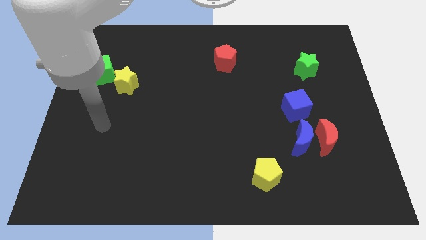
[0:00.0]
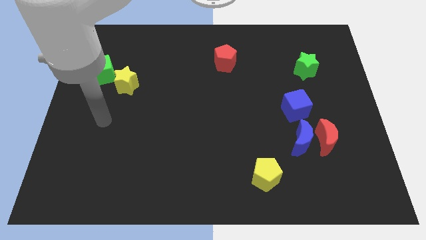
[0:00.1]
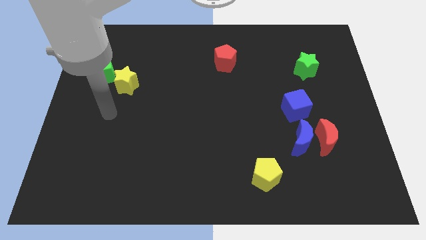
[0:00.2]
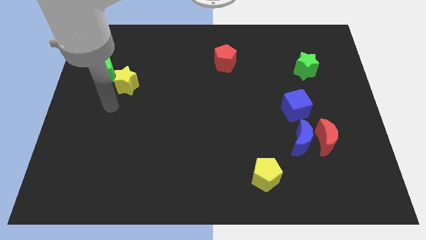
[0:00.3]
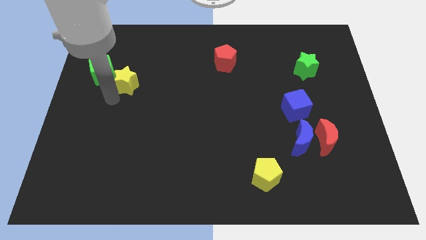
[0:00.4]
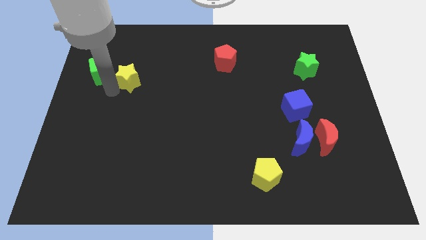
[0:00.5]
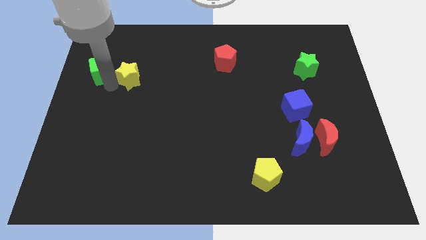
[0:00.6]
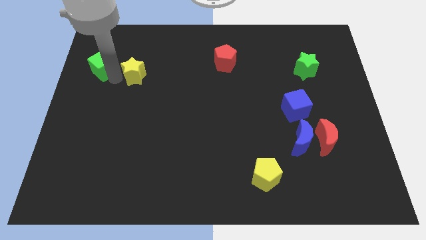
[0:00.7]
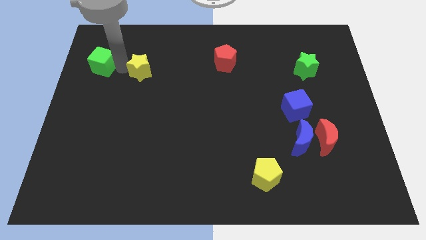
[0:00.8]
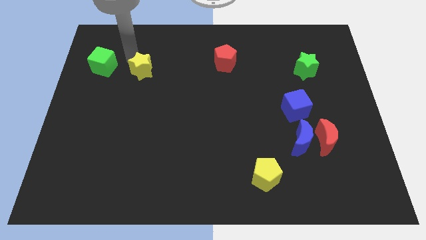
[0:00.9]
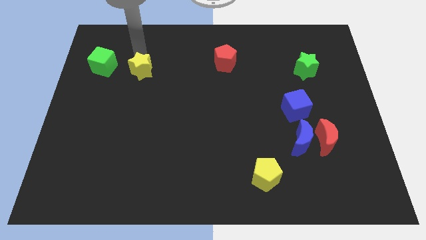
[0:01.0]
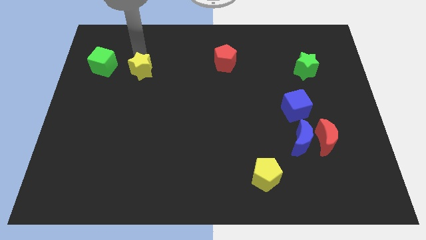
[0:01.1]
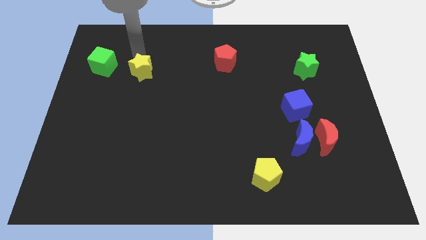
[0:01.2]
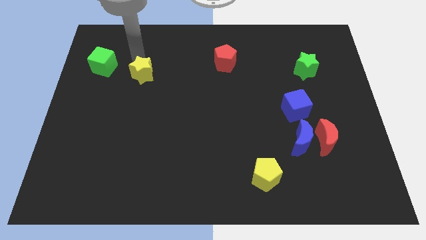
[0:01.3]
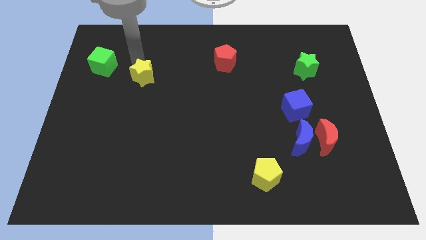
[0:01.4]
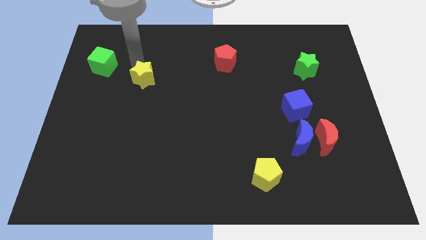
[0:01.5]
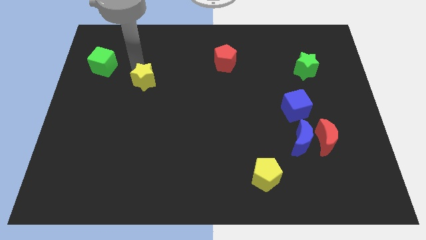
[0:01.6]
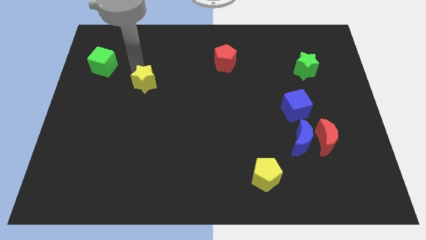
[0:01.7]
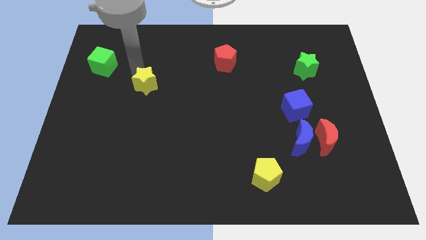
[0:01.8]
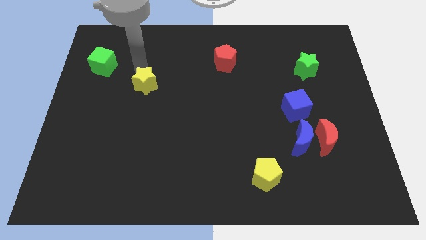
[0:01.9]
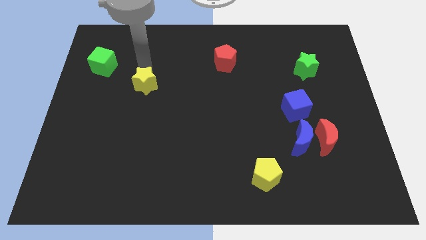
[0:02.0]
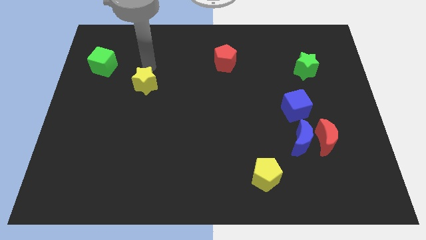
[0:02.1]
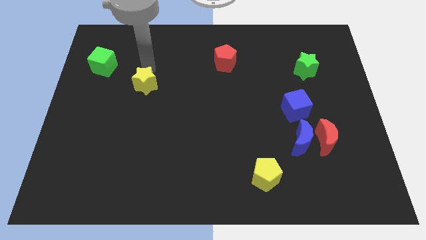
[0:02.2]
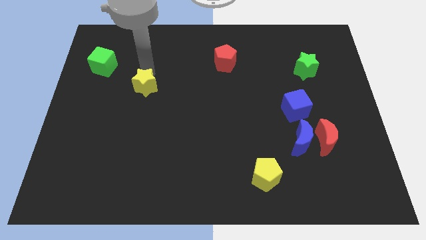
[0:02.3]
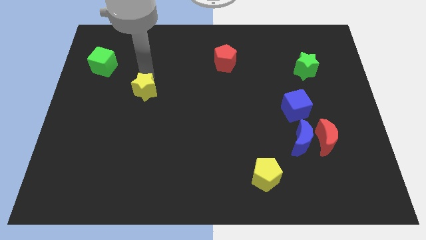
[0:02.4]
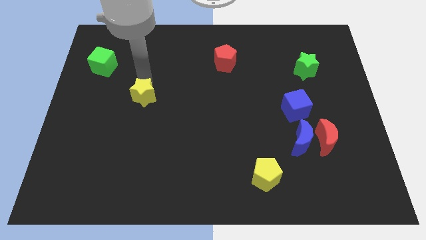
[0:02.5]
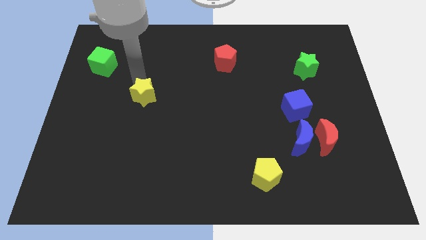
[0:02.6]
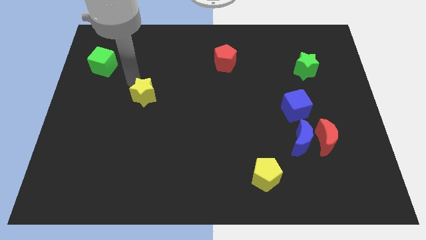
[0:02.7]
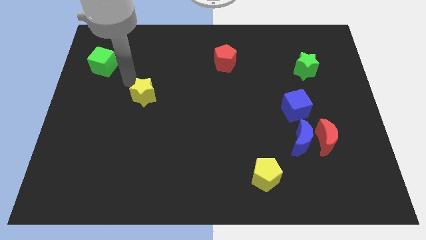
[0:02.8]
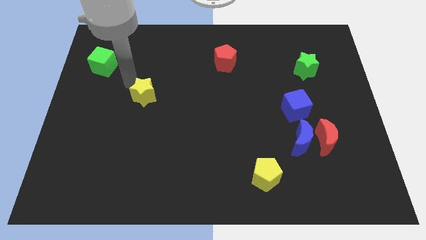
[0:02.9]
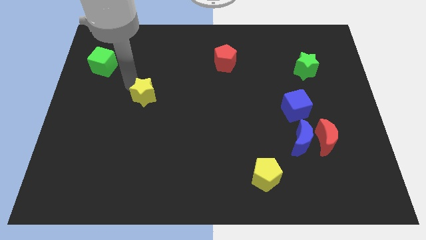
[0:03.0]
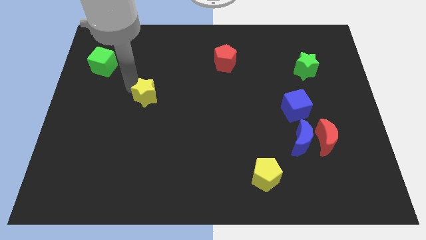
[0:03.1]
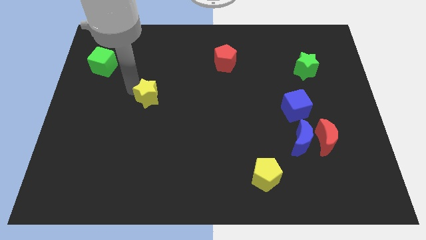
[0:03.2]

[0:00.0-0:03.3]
move the yellow star a bit down and then to the right

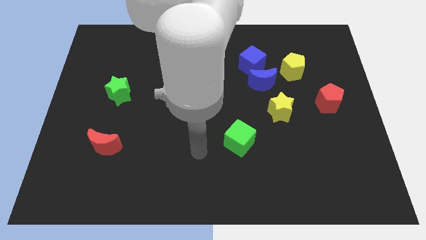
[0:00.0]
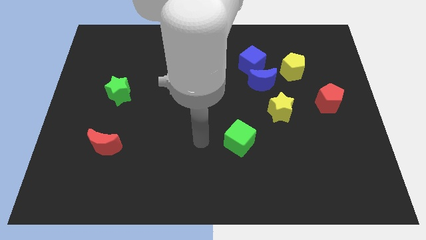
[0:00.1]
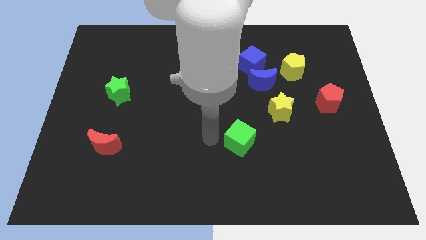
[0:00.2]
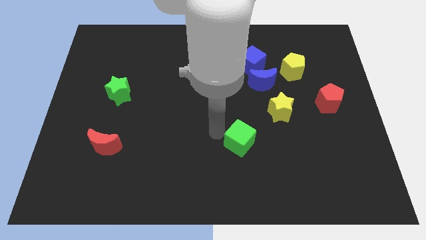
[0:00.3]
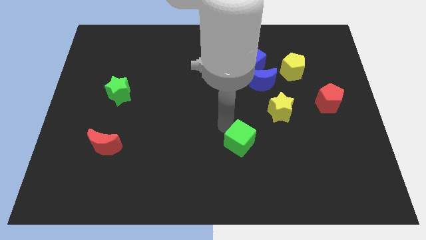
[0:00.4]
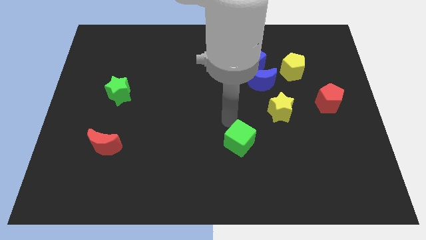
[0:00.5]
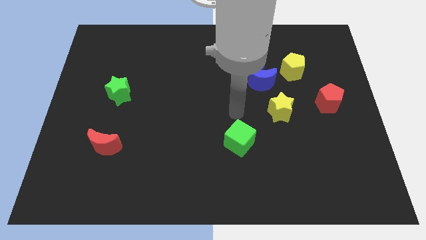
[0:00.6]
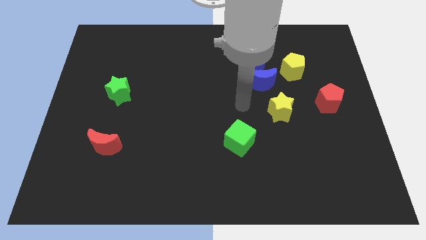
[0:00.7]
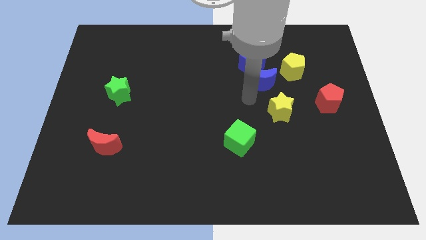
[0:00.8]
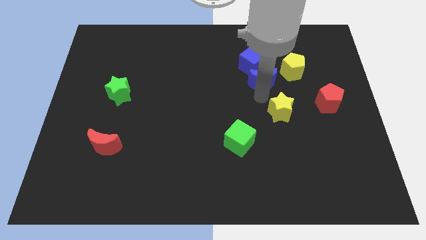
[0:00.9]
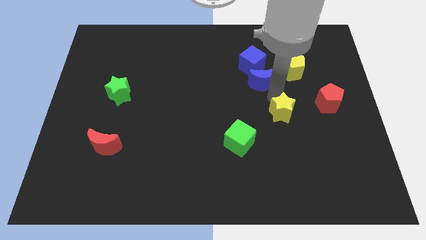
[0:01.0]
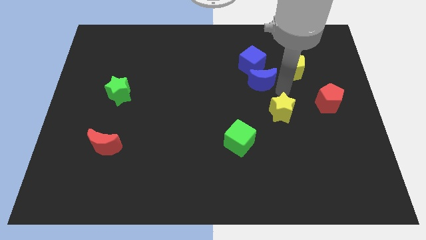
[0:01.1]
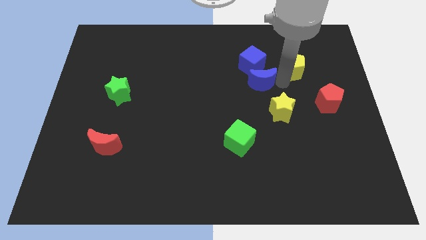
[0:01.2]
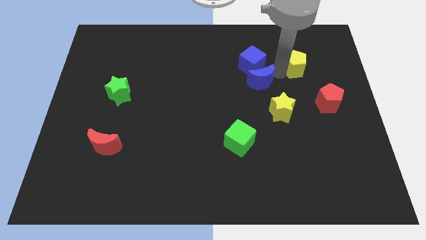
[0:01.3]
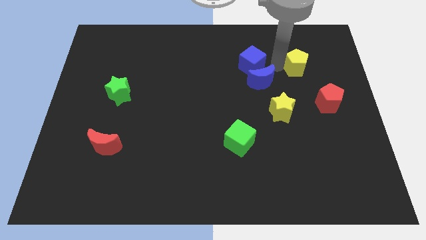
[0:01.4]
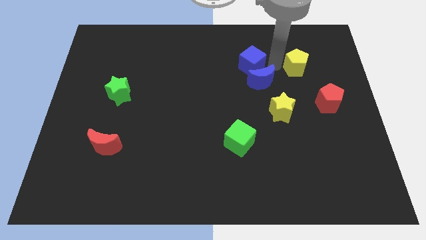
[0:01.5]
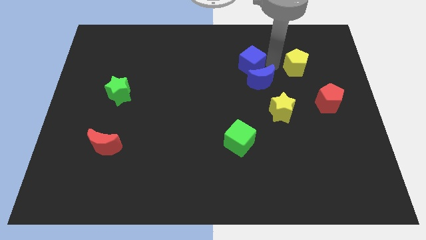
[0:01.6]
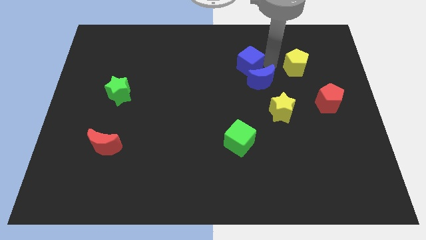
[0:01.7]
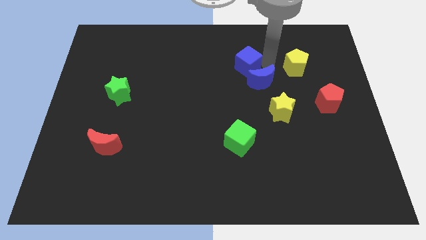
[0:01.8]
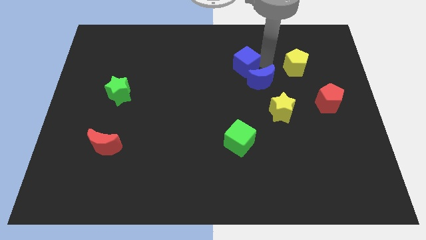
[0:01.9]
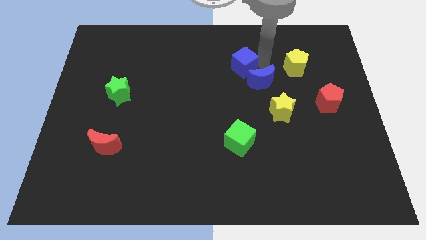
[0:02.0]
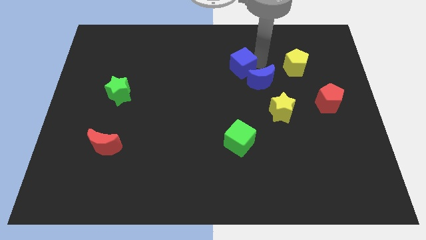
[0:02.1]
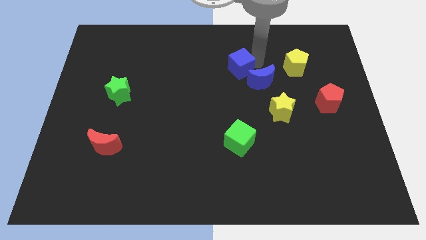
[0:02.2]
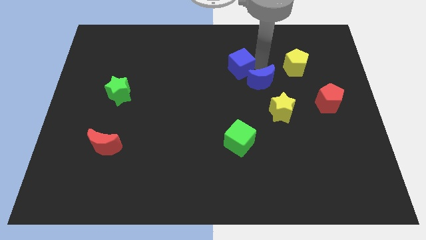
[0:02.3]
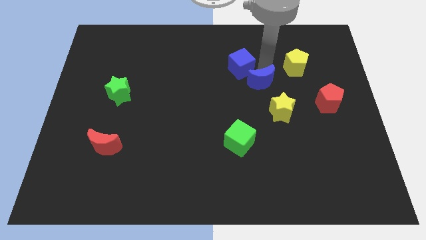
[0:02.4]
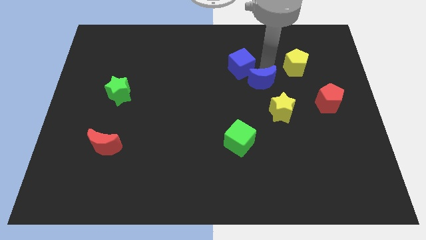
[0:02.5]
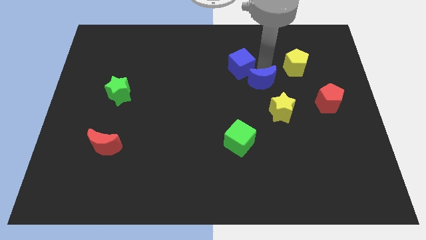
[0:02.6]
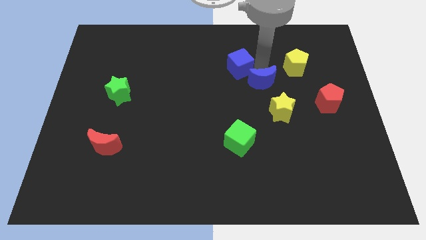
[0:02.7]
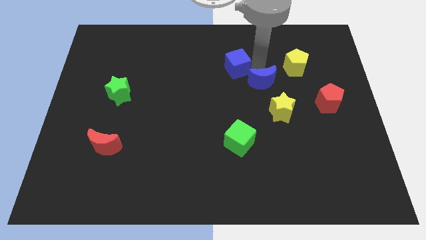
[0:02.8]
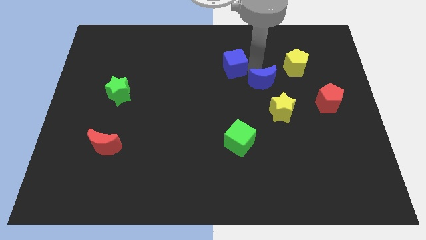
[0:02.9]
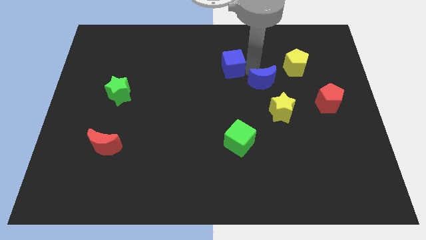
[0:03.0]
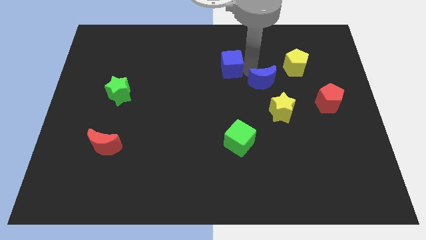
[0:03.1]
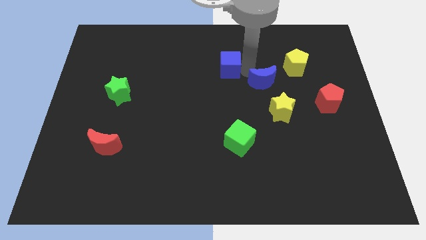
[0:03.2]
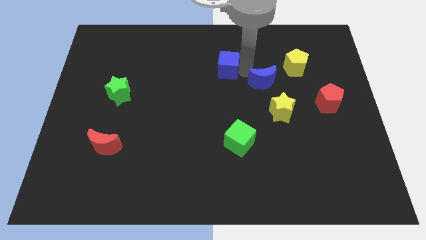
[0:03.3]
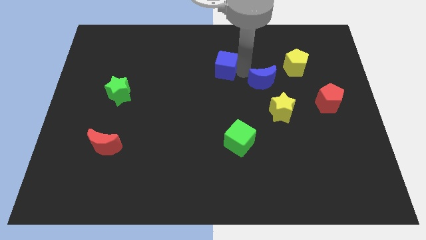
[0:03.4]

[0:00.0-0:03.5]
push the blue cube left slightly

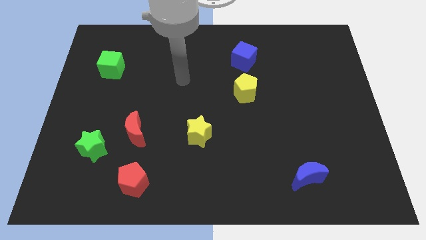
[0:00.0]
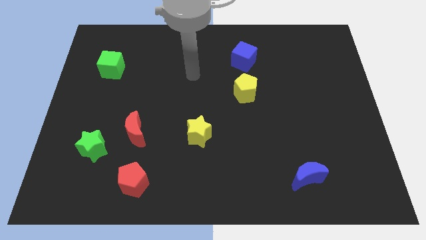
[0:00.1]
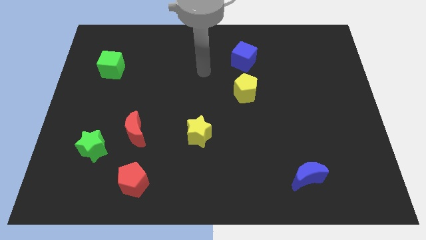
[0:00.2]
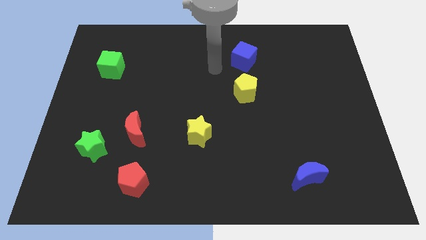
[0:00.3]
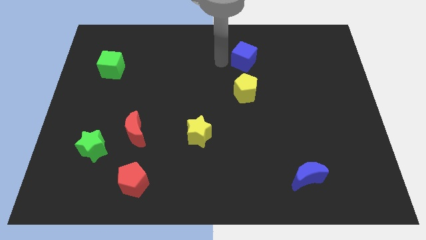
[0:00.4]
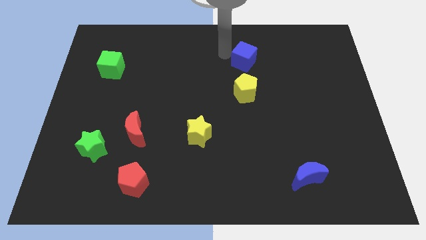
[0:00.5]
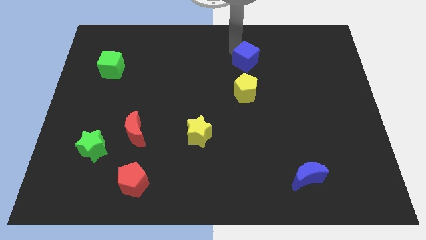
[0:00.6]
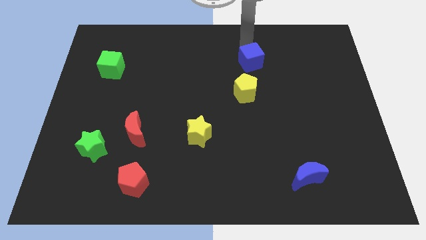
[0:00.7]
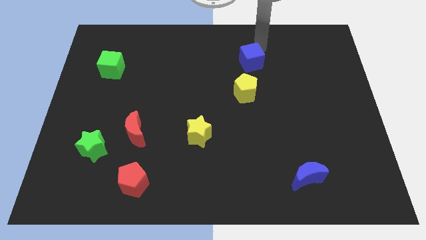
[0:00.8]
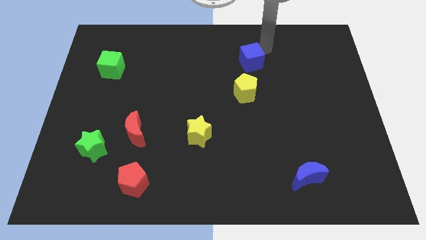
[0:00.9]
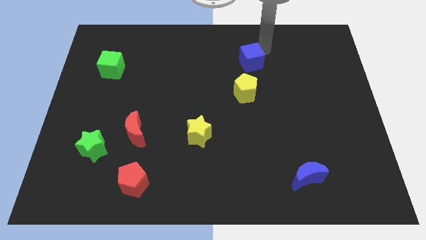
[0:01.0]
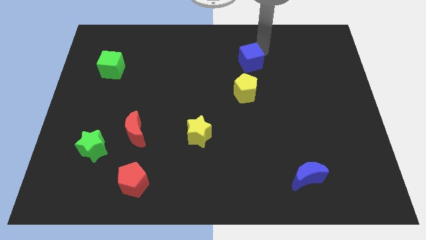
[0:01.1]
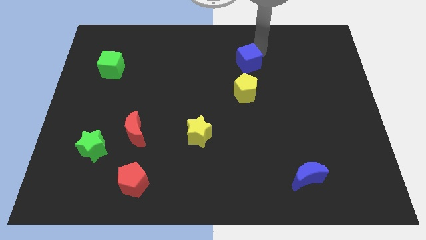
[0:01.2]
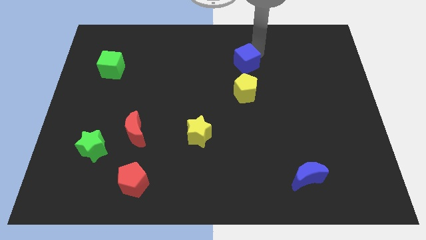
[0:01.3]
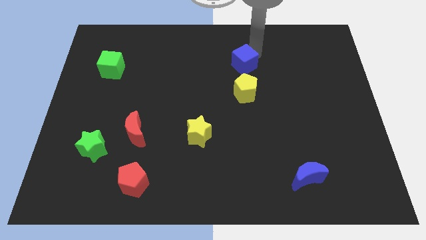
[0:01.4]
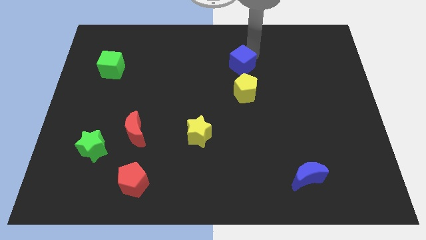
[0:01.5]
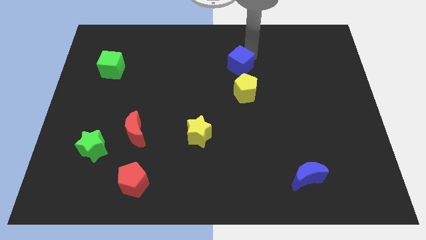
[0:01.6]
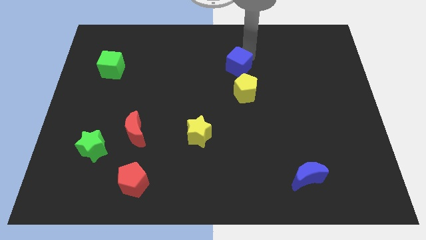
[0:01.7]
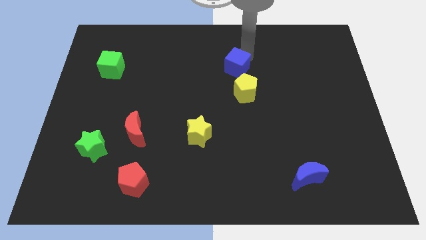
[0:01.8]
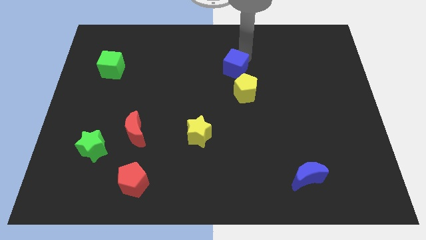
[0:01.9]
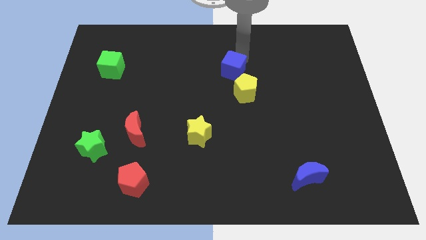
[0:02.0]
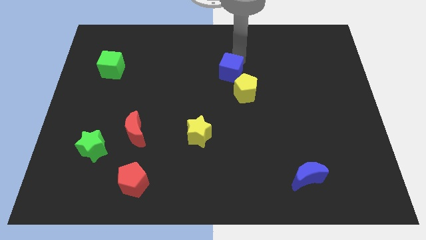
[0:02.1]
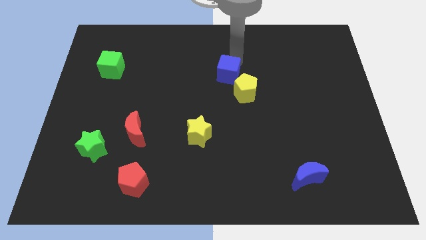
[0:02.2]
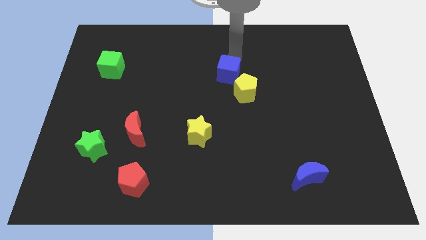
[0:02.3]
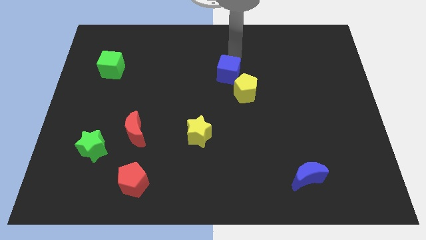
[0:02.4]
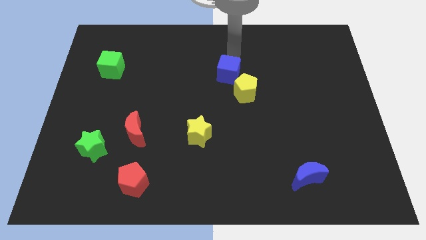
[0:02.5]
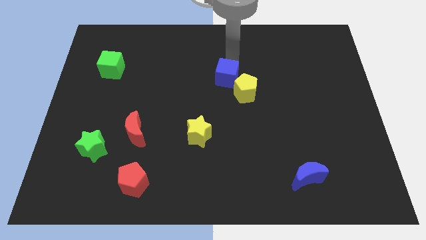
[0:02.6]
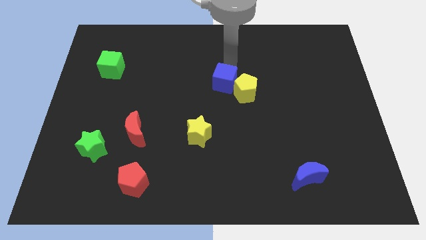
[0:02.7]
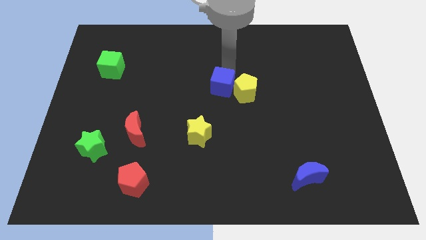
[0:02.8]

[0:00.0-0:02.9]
slide the blue cube down a little
